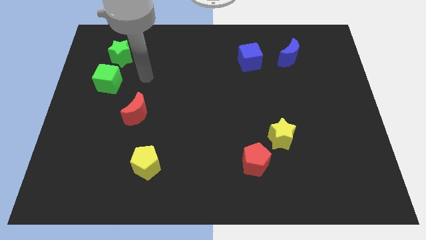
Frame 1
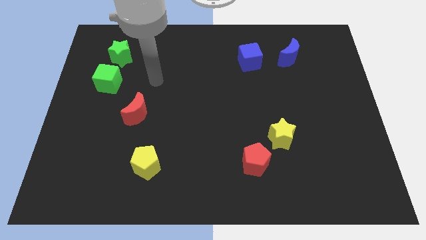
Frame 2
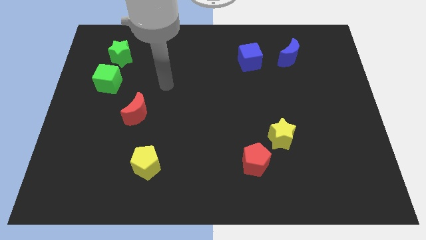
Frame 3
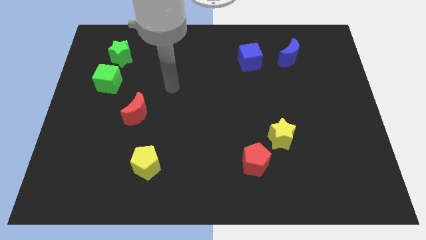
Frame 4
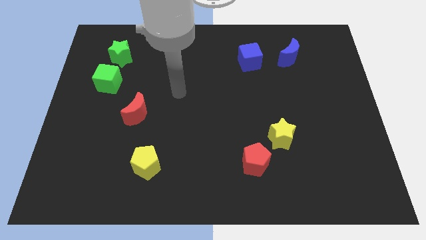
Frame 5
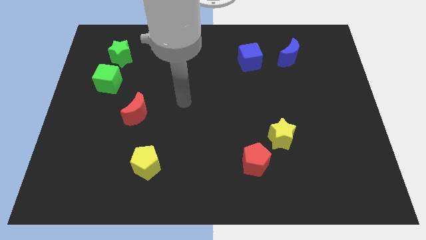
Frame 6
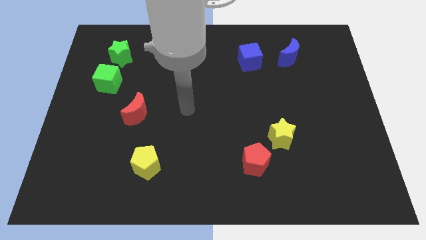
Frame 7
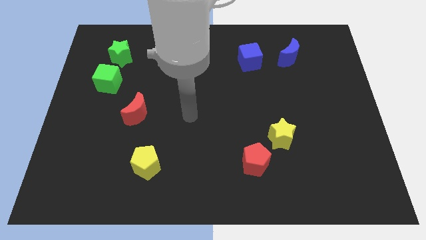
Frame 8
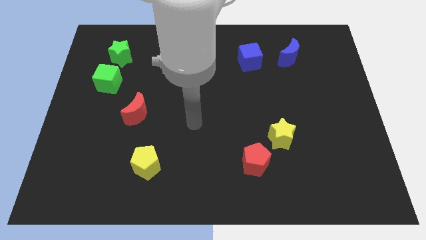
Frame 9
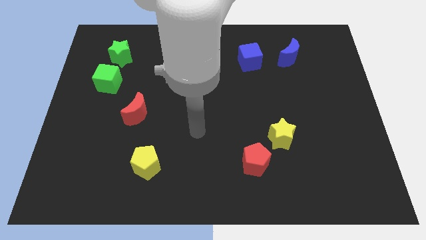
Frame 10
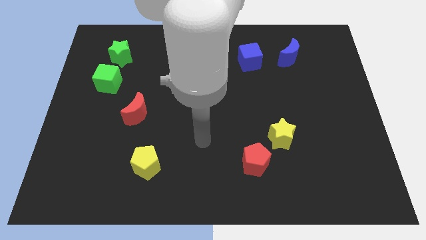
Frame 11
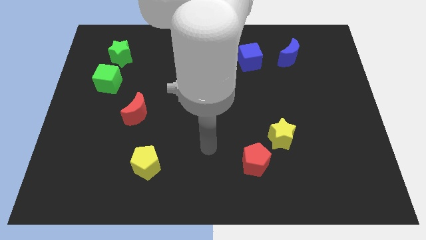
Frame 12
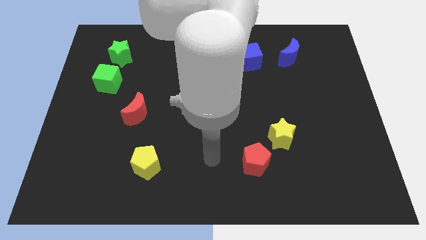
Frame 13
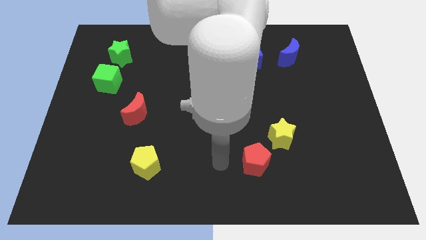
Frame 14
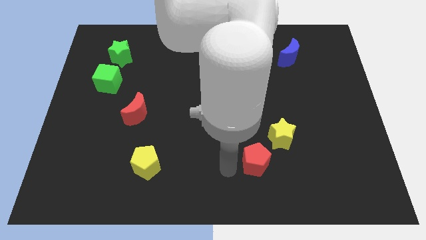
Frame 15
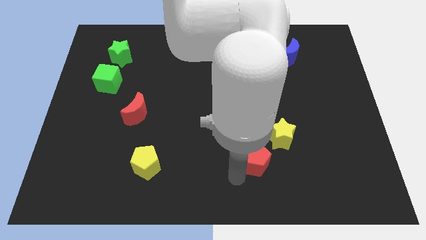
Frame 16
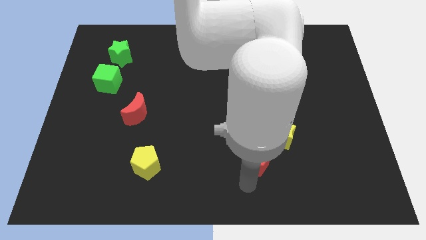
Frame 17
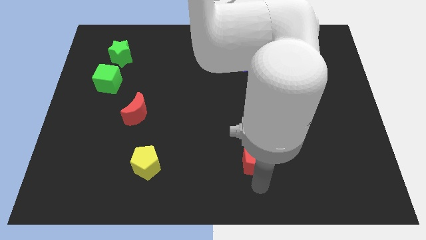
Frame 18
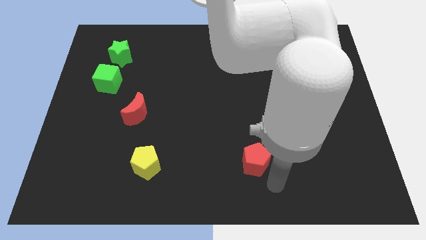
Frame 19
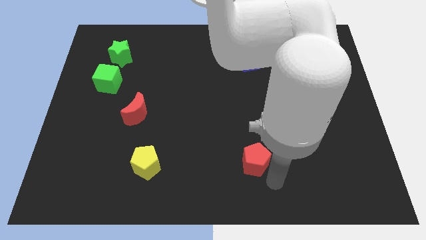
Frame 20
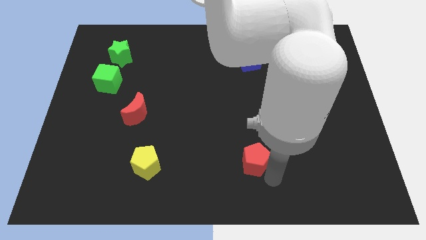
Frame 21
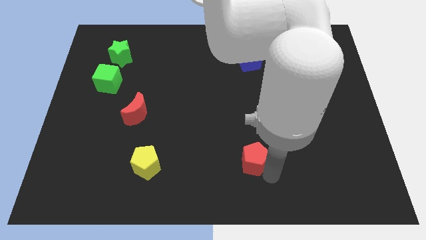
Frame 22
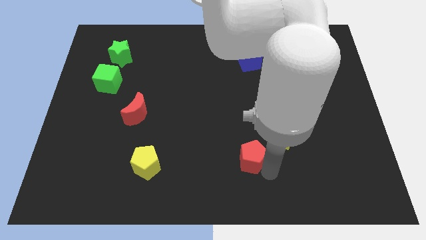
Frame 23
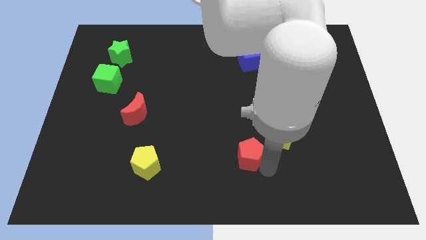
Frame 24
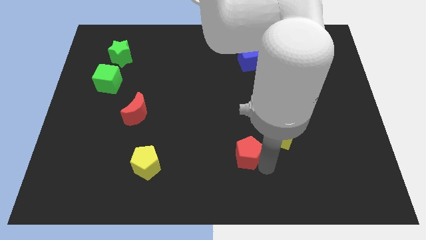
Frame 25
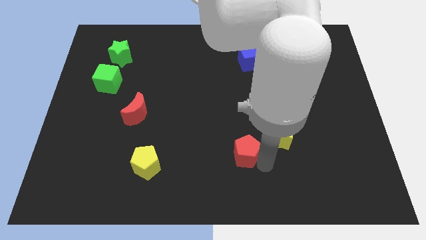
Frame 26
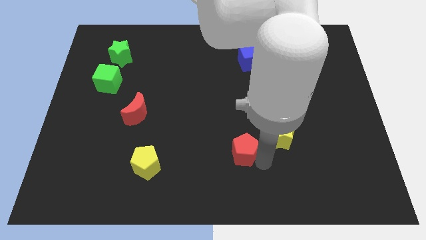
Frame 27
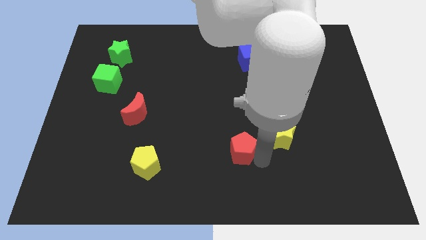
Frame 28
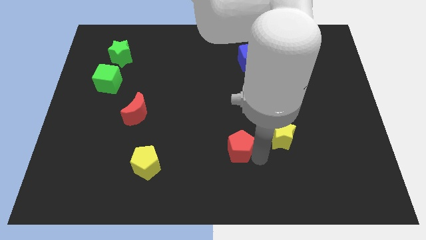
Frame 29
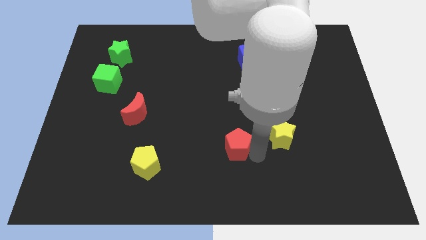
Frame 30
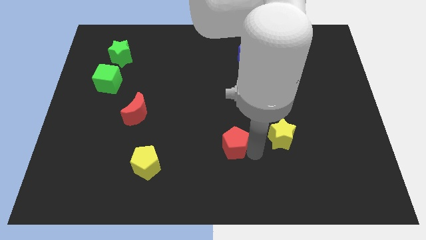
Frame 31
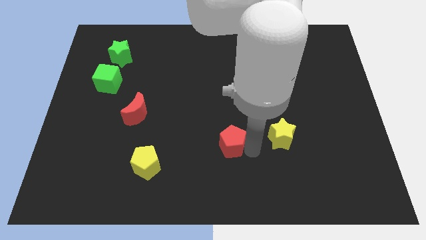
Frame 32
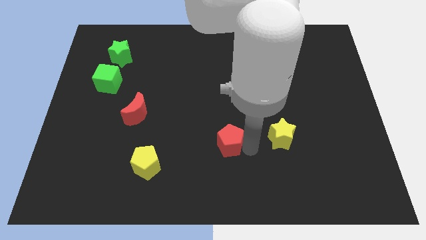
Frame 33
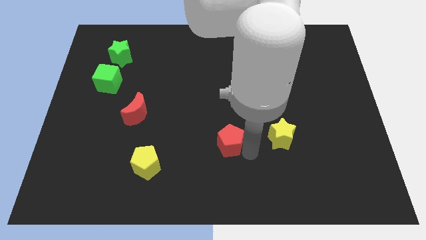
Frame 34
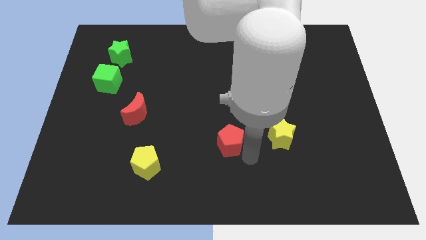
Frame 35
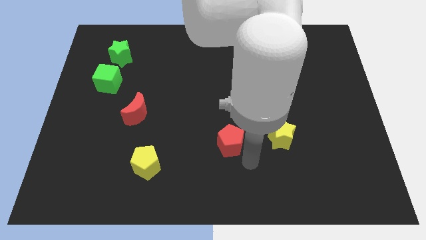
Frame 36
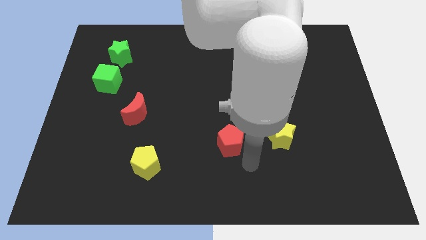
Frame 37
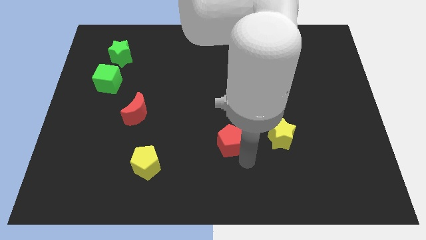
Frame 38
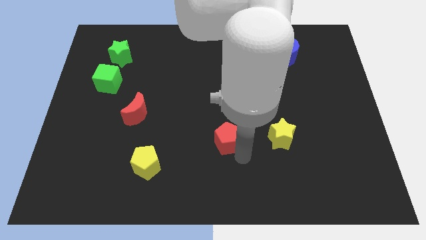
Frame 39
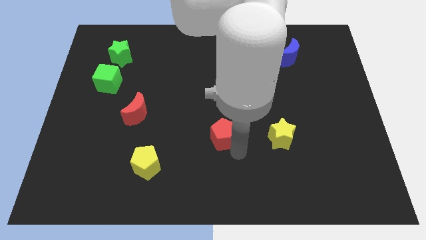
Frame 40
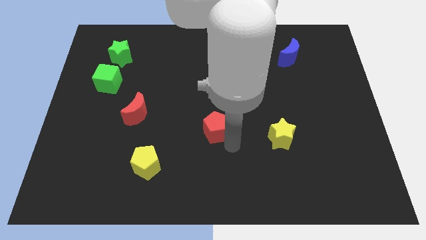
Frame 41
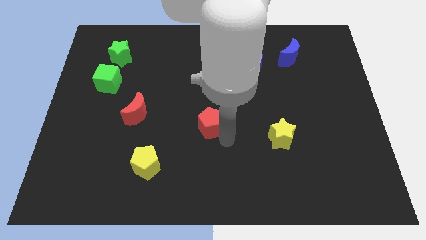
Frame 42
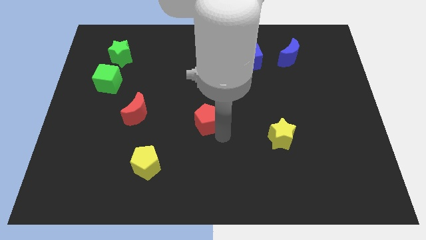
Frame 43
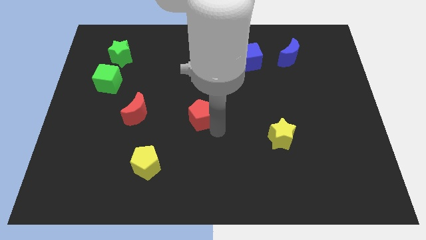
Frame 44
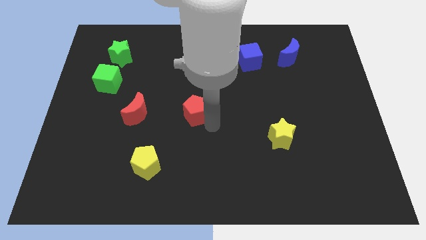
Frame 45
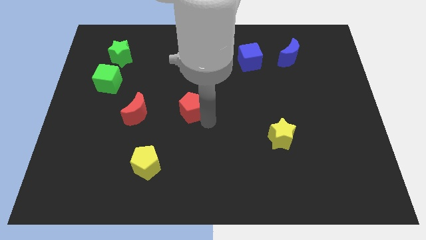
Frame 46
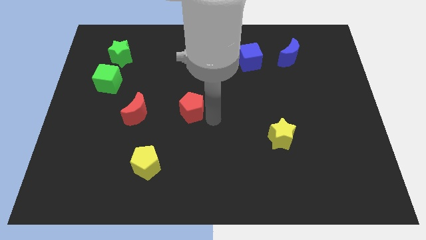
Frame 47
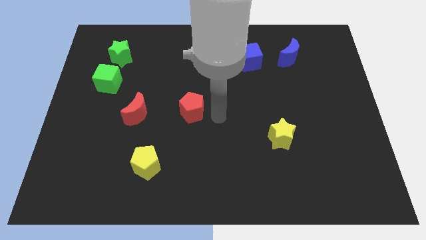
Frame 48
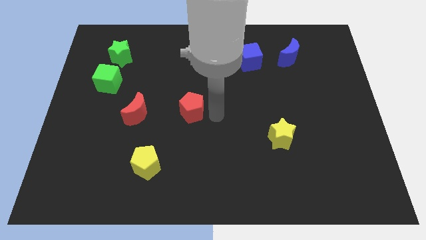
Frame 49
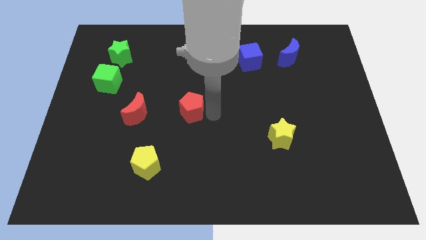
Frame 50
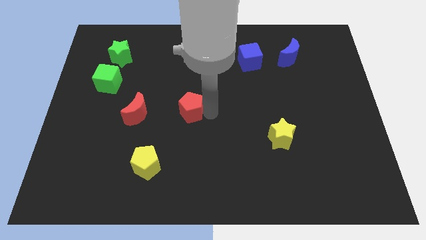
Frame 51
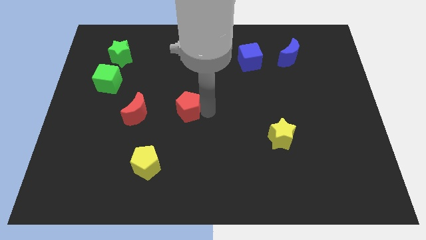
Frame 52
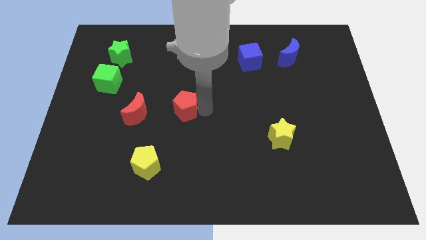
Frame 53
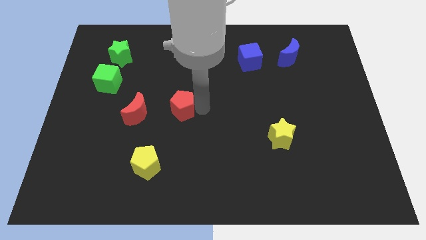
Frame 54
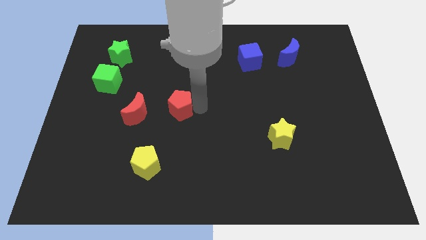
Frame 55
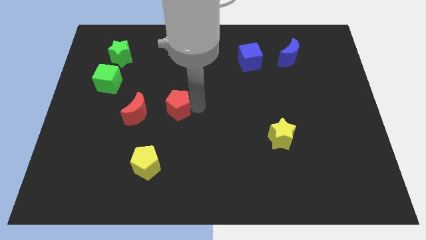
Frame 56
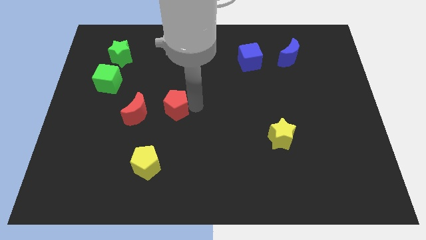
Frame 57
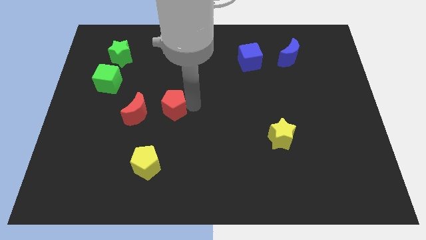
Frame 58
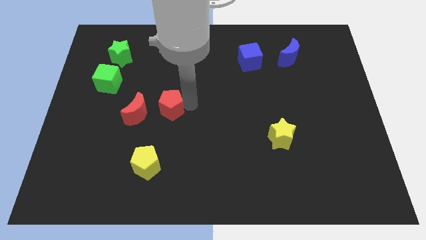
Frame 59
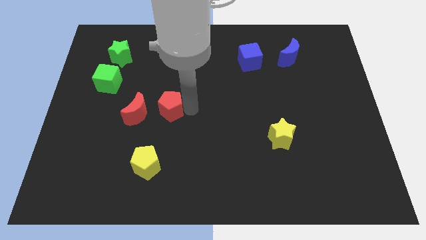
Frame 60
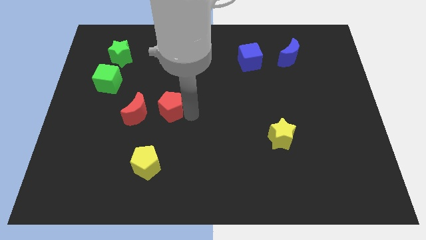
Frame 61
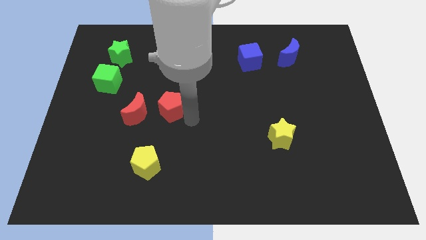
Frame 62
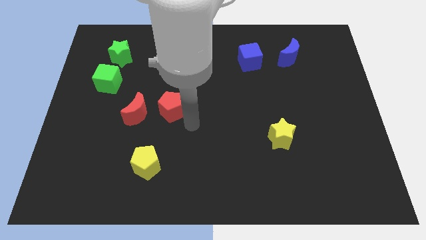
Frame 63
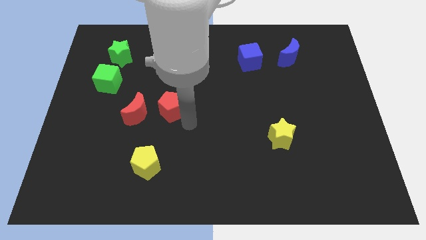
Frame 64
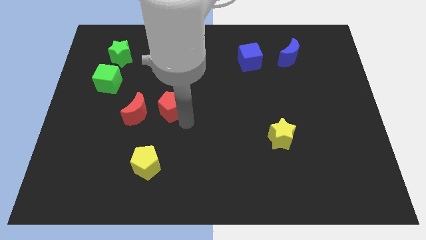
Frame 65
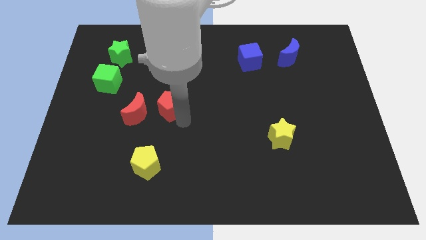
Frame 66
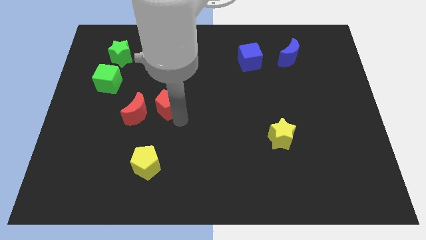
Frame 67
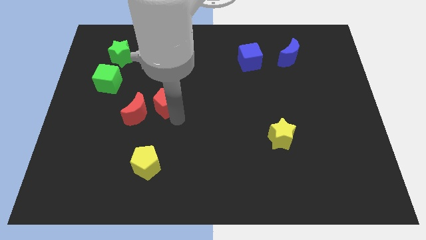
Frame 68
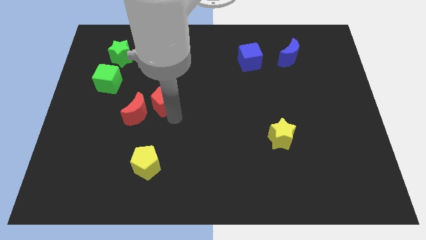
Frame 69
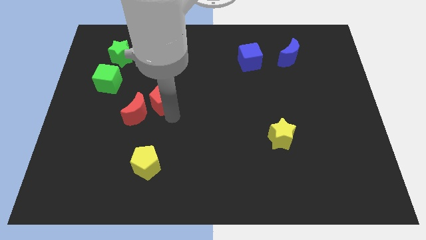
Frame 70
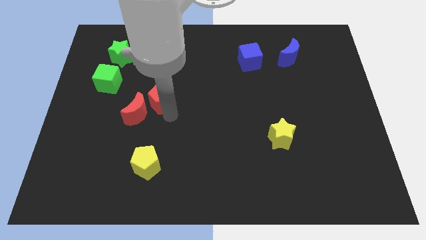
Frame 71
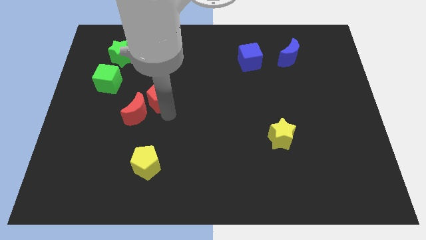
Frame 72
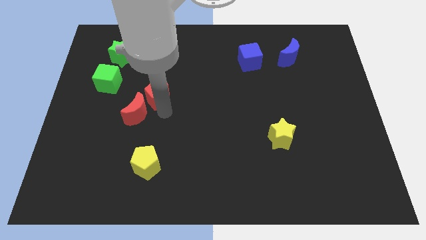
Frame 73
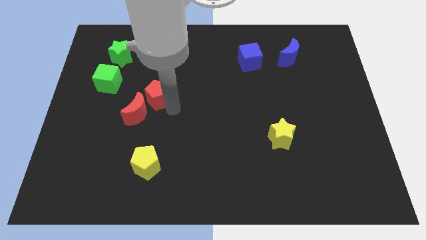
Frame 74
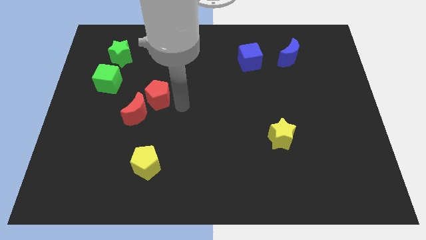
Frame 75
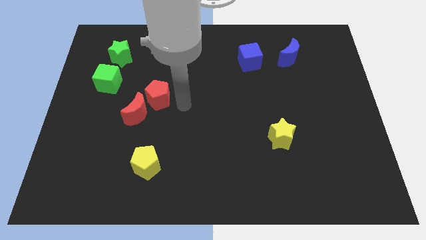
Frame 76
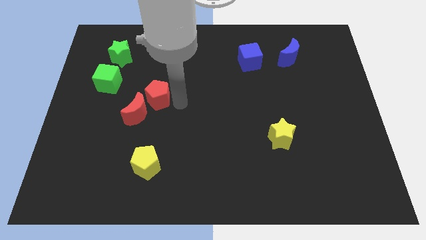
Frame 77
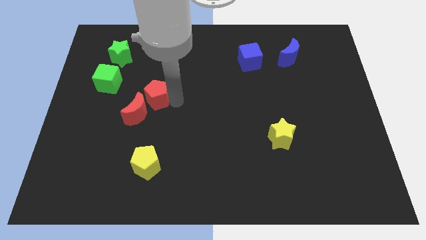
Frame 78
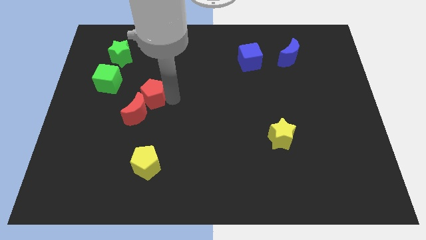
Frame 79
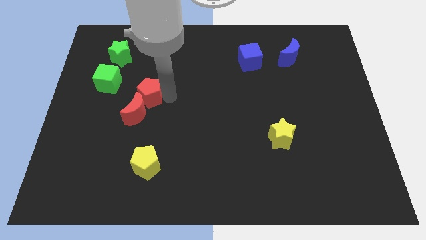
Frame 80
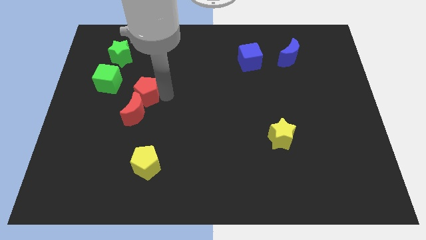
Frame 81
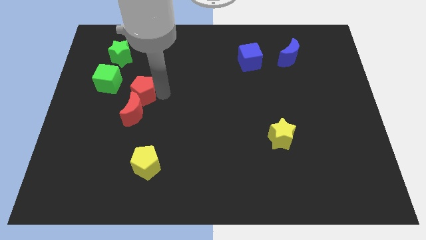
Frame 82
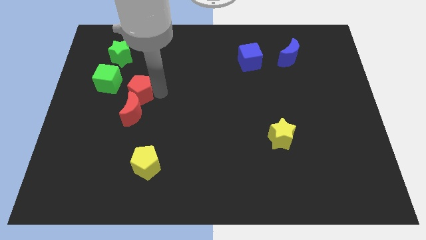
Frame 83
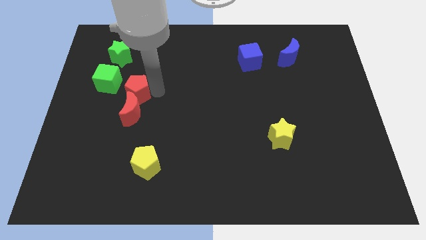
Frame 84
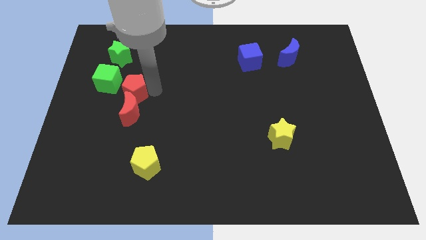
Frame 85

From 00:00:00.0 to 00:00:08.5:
push the red pentagon to the bottom of the green star
